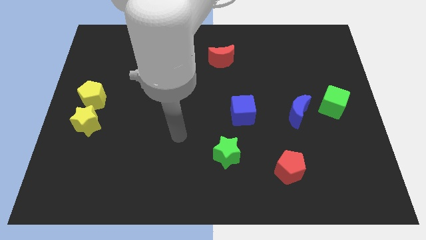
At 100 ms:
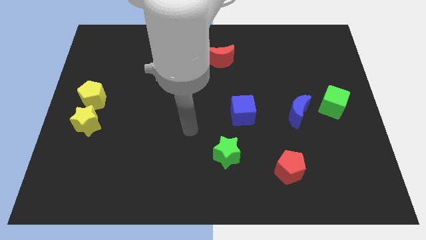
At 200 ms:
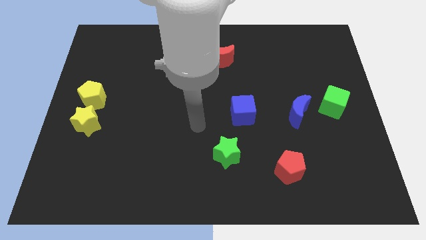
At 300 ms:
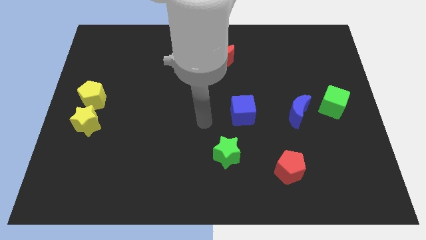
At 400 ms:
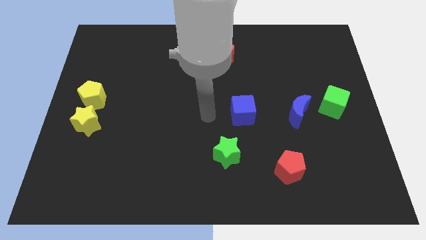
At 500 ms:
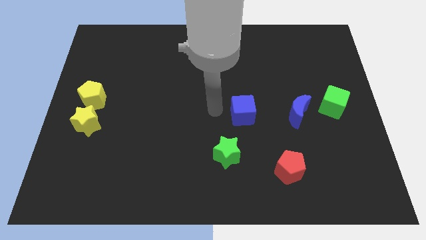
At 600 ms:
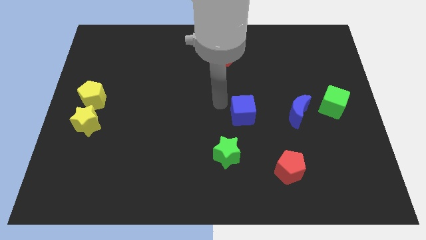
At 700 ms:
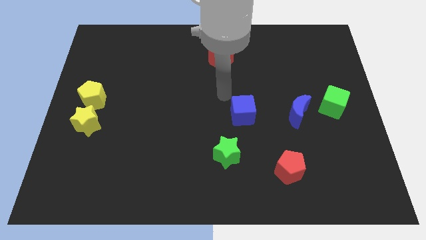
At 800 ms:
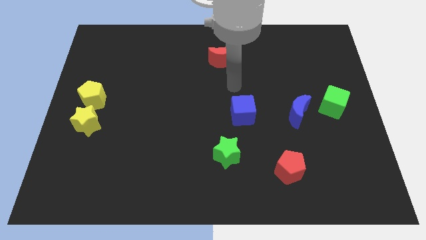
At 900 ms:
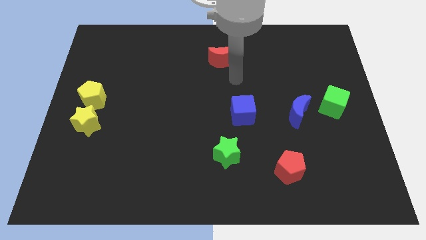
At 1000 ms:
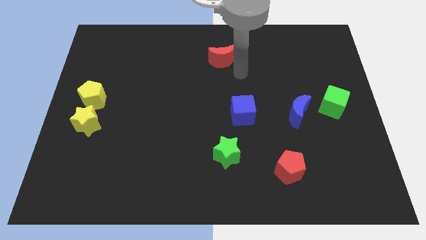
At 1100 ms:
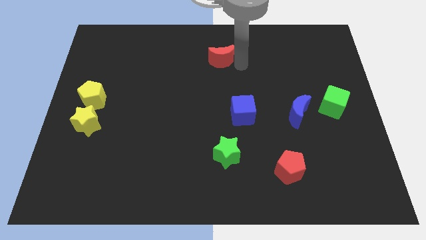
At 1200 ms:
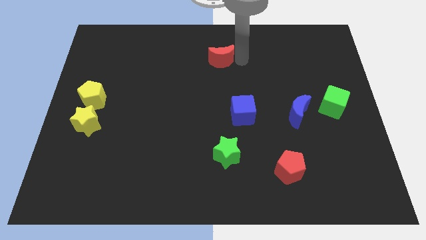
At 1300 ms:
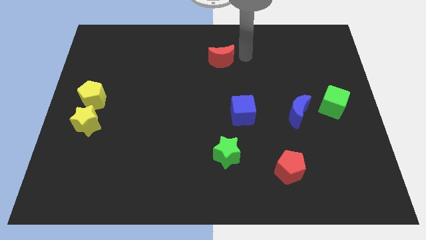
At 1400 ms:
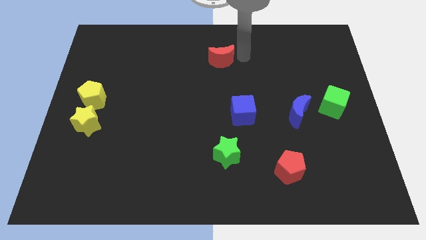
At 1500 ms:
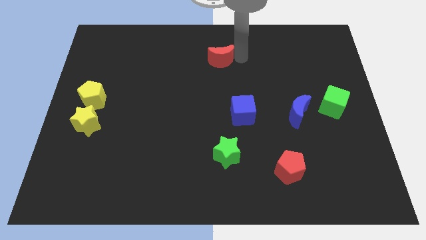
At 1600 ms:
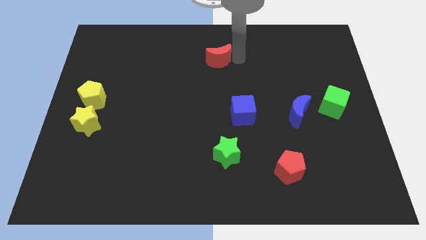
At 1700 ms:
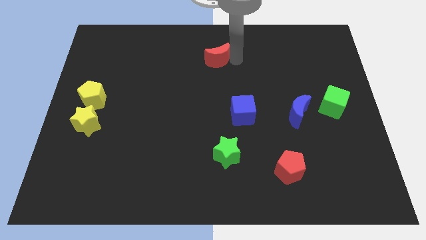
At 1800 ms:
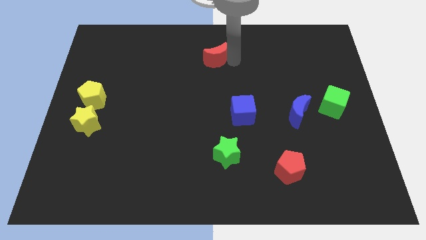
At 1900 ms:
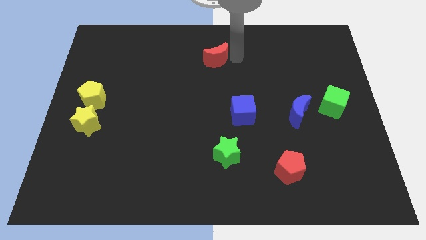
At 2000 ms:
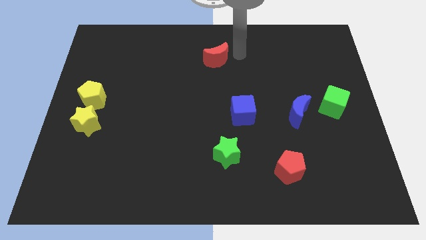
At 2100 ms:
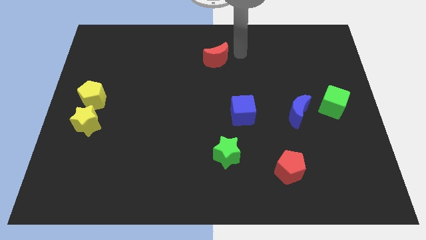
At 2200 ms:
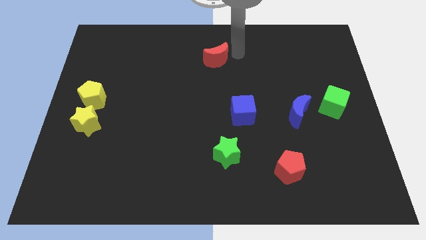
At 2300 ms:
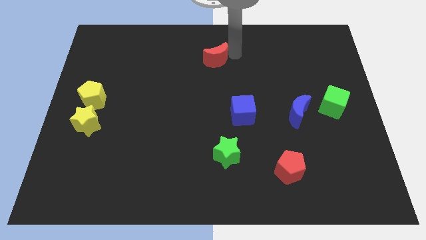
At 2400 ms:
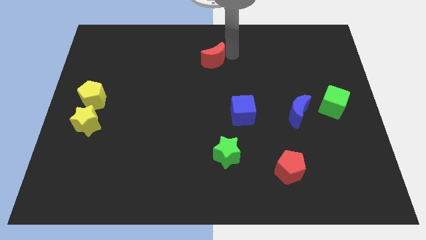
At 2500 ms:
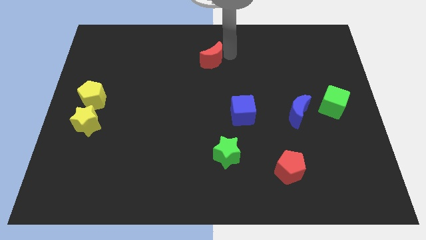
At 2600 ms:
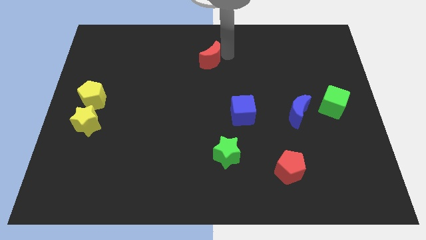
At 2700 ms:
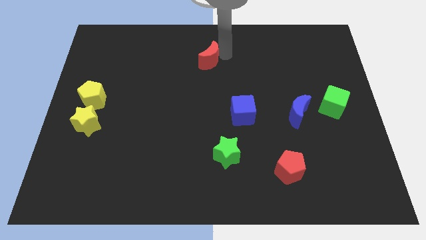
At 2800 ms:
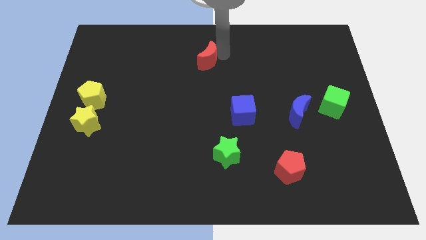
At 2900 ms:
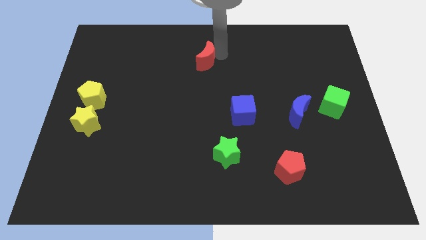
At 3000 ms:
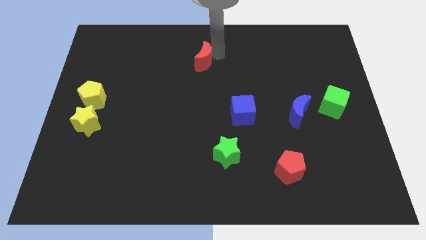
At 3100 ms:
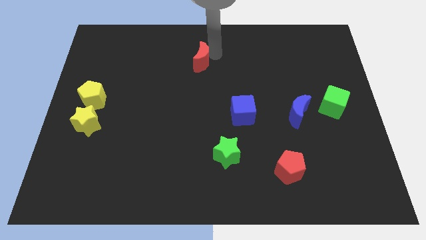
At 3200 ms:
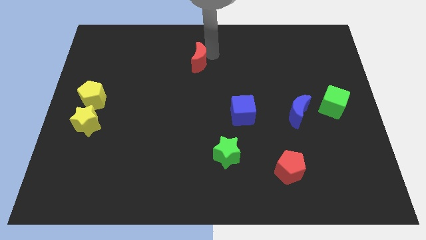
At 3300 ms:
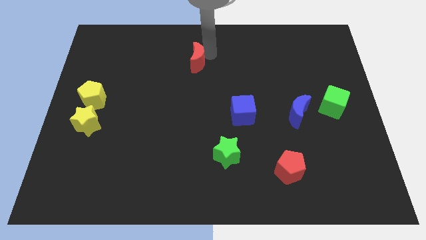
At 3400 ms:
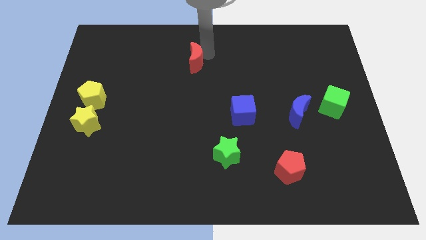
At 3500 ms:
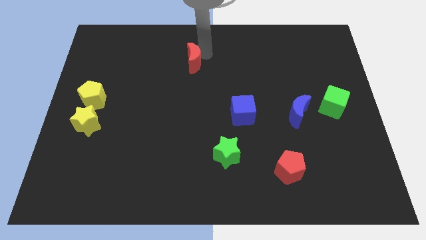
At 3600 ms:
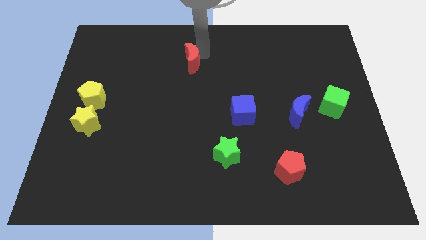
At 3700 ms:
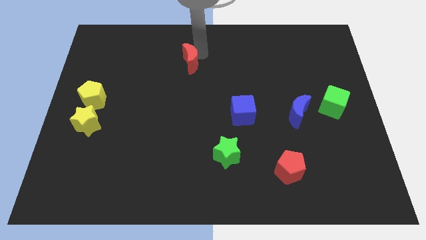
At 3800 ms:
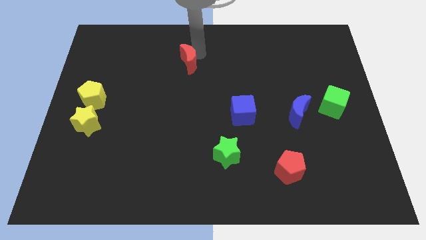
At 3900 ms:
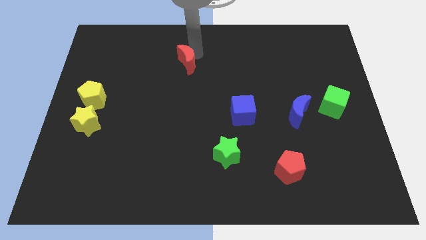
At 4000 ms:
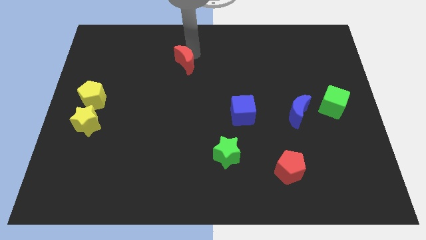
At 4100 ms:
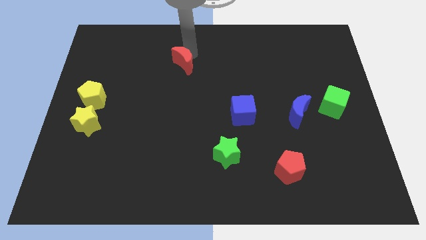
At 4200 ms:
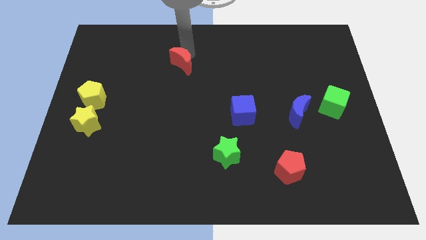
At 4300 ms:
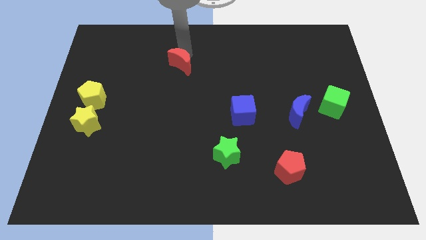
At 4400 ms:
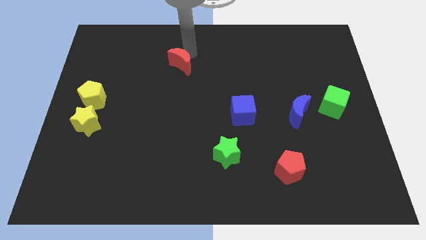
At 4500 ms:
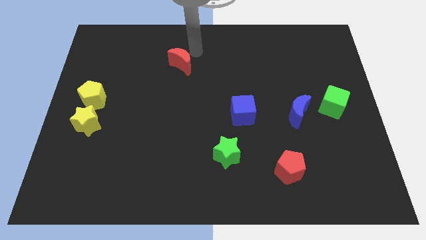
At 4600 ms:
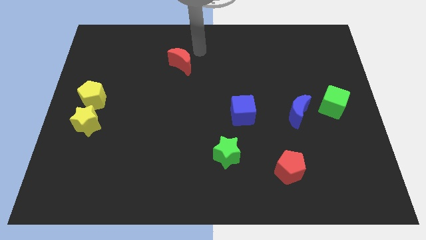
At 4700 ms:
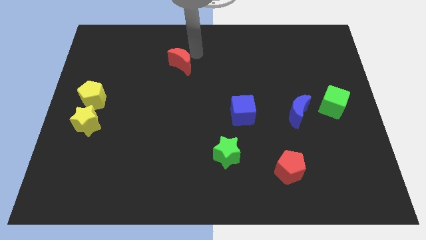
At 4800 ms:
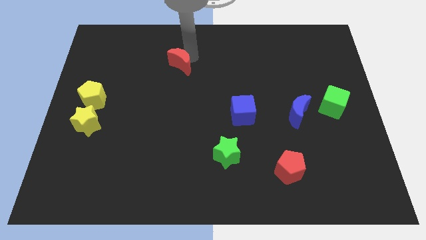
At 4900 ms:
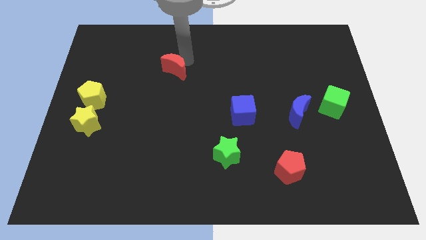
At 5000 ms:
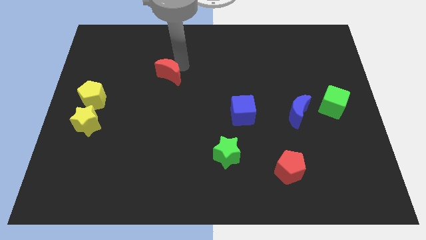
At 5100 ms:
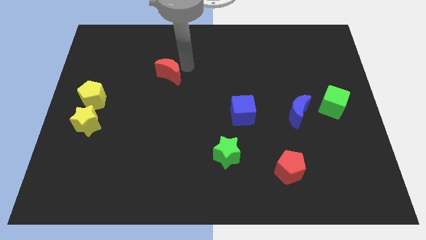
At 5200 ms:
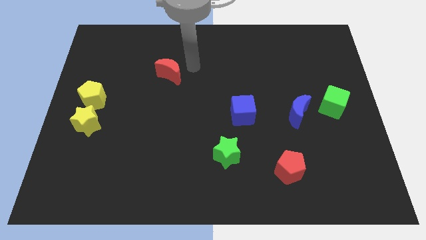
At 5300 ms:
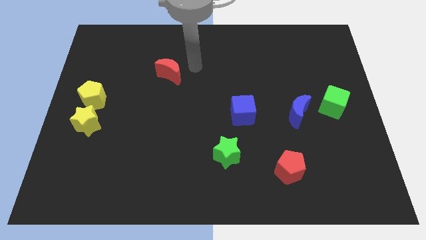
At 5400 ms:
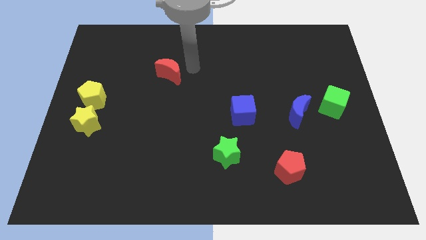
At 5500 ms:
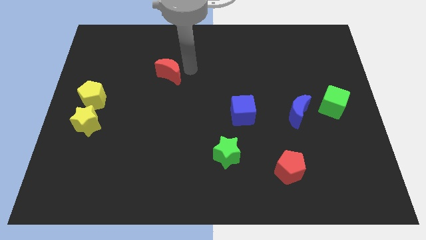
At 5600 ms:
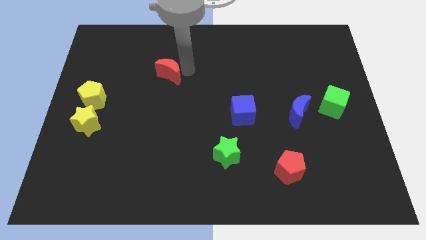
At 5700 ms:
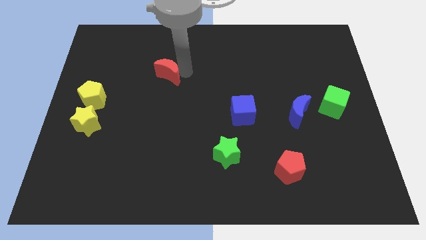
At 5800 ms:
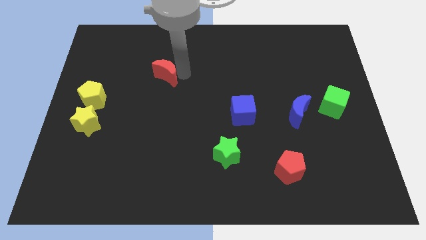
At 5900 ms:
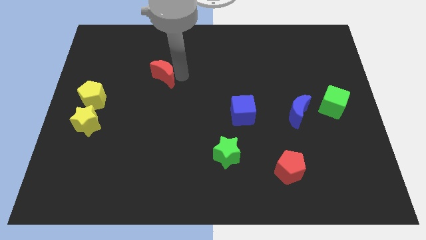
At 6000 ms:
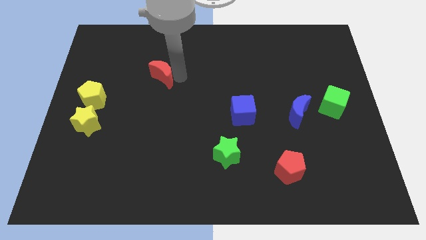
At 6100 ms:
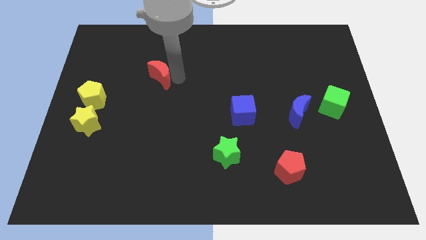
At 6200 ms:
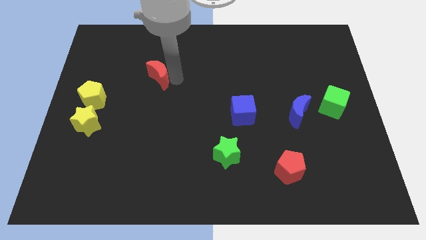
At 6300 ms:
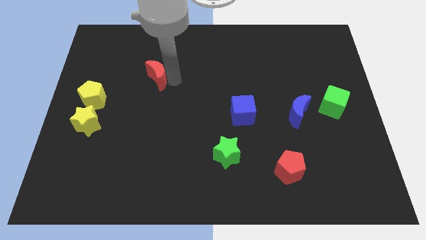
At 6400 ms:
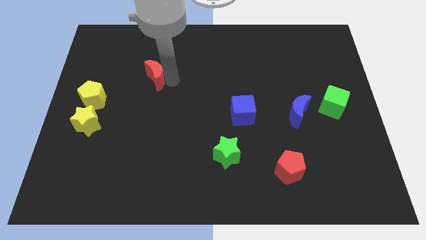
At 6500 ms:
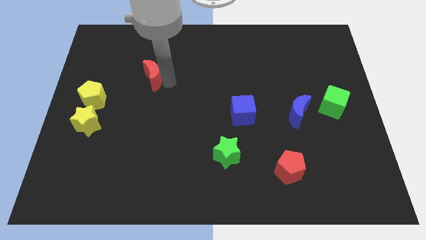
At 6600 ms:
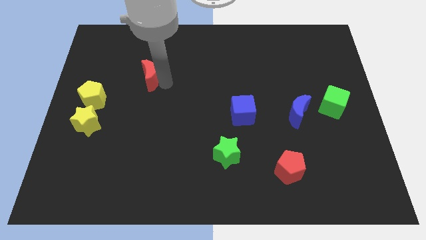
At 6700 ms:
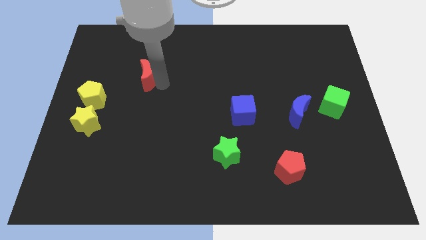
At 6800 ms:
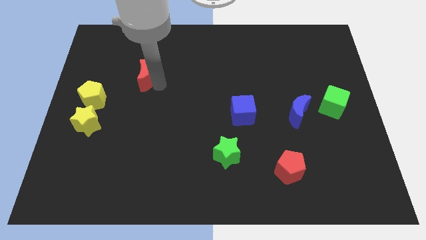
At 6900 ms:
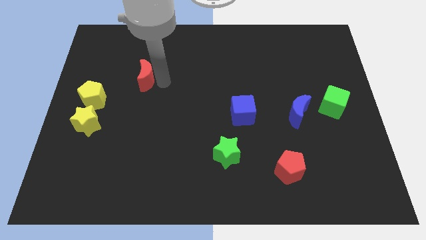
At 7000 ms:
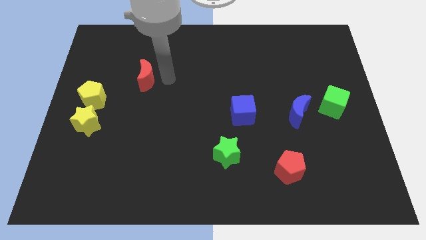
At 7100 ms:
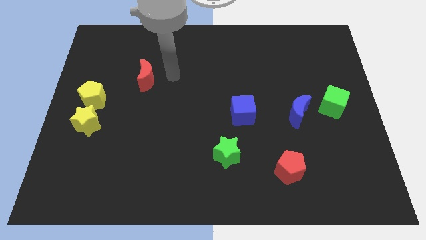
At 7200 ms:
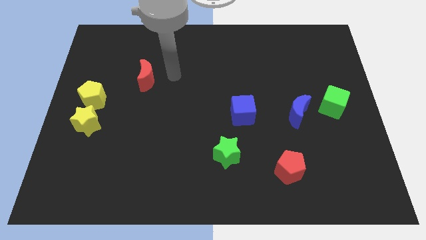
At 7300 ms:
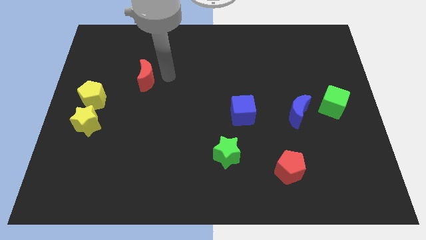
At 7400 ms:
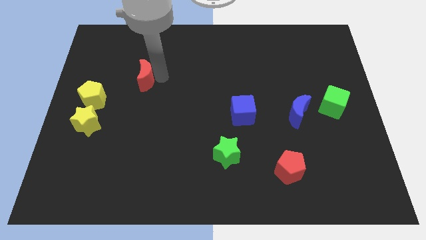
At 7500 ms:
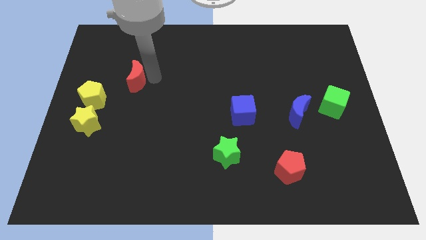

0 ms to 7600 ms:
put the red moon to the top right of the yellow pentagon

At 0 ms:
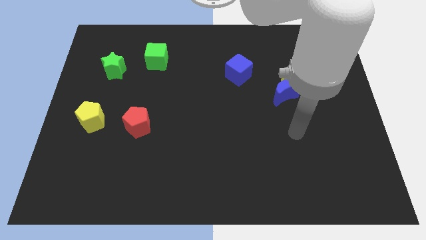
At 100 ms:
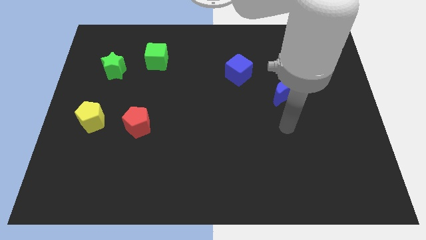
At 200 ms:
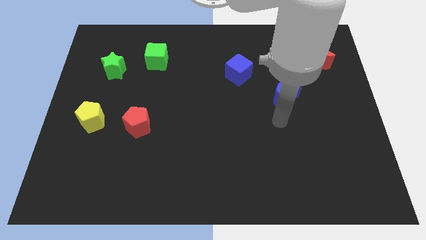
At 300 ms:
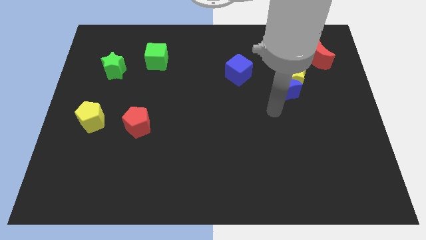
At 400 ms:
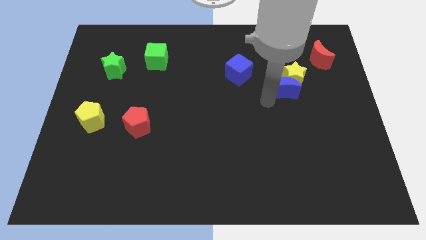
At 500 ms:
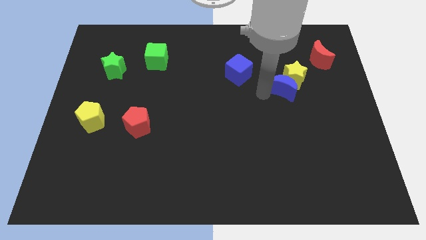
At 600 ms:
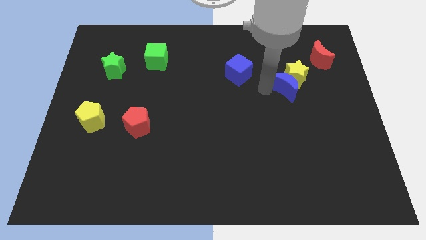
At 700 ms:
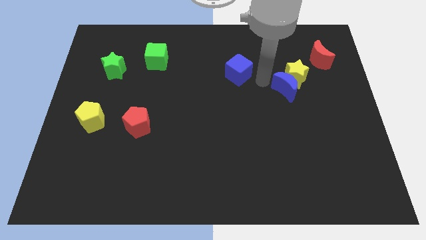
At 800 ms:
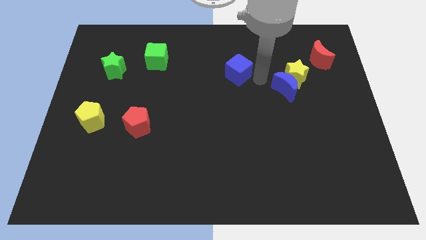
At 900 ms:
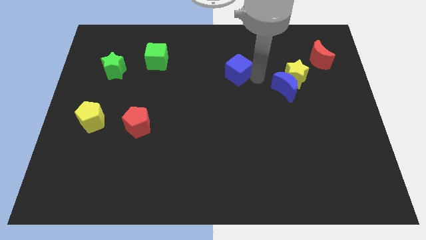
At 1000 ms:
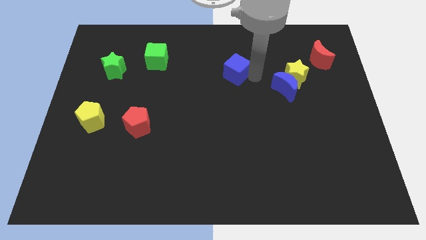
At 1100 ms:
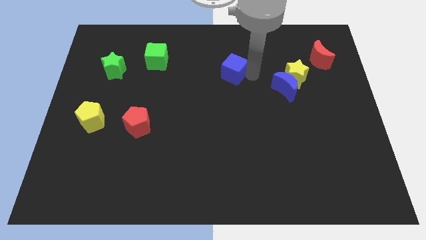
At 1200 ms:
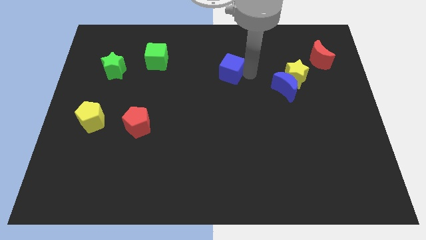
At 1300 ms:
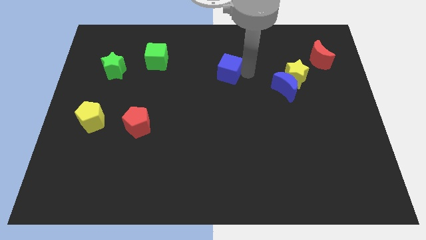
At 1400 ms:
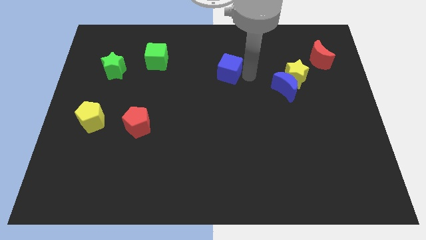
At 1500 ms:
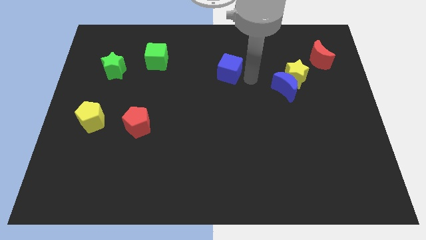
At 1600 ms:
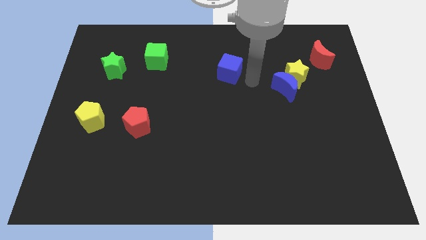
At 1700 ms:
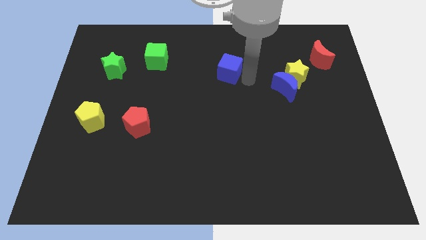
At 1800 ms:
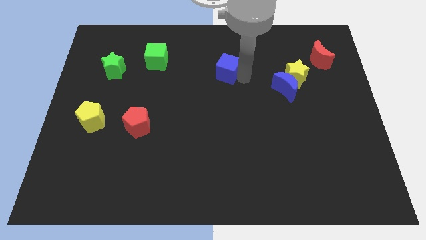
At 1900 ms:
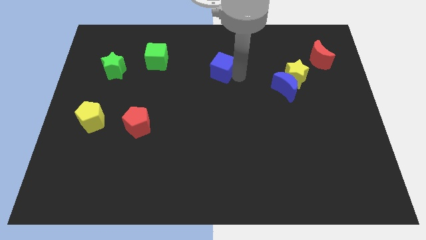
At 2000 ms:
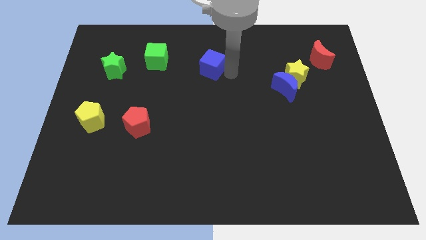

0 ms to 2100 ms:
move the blue cube to the right of the green cube
